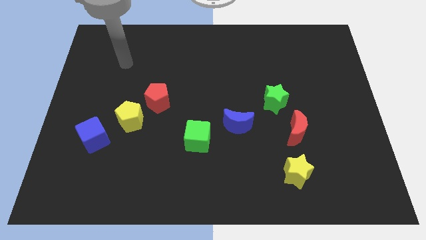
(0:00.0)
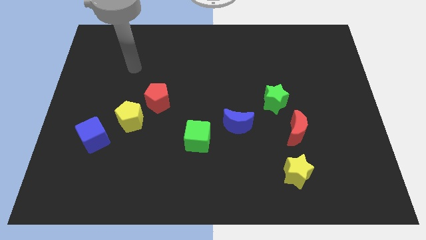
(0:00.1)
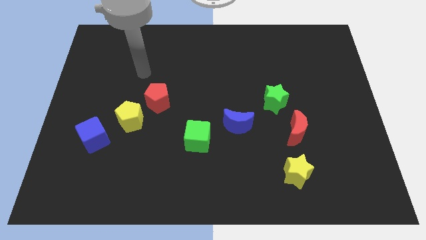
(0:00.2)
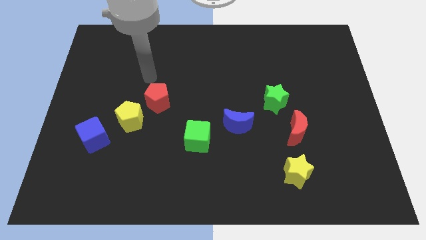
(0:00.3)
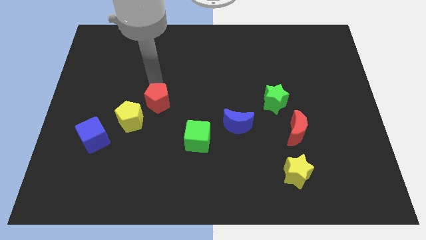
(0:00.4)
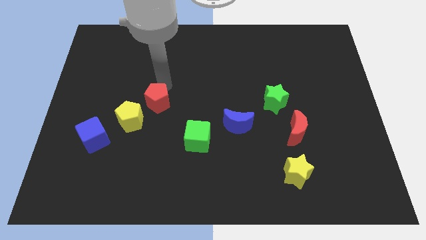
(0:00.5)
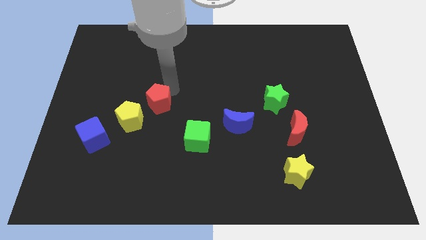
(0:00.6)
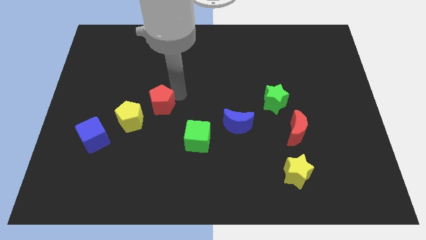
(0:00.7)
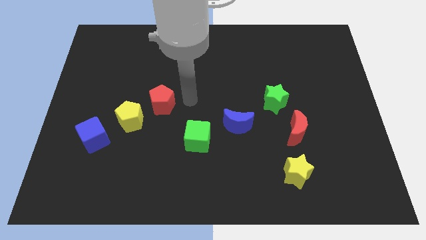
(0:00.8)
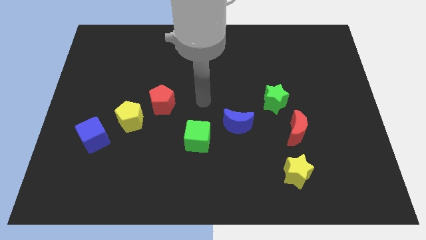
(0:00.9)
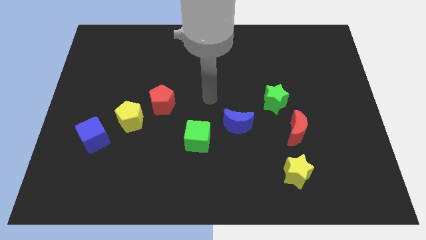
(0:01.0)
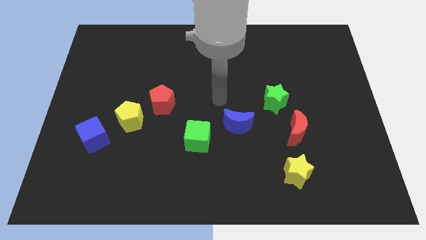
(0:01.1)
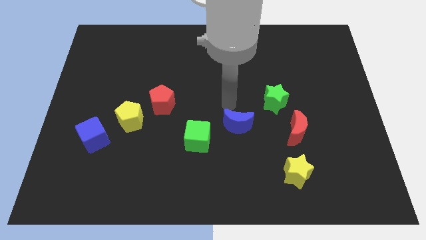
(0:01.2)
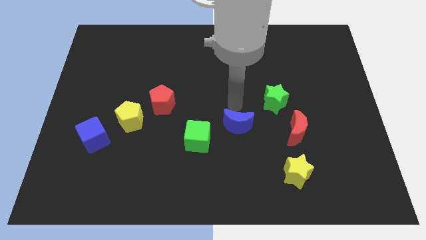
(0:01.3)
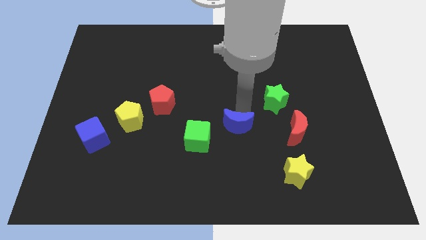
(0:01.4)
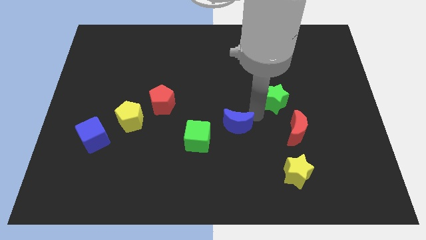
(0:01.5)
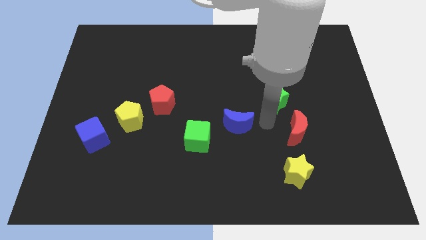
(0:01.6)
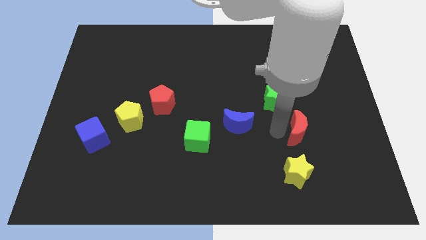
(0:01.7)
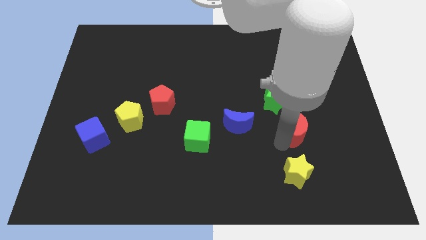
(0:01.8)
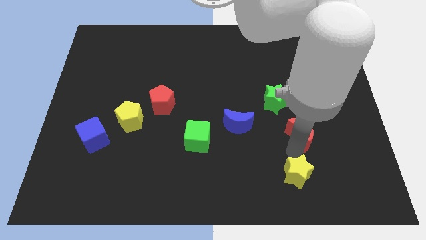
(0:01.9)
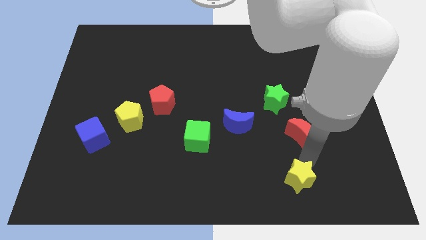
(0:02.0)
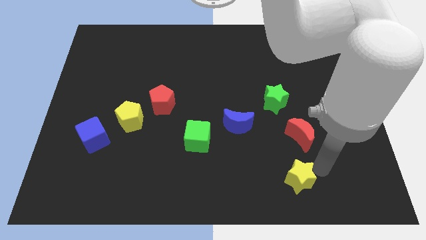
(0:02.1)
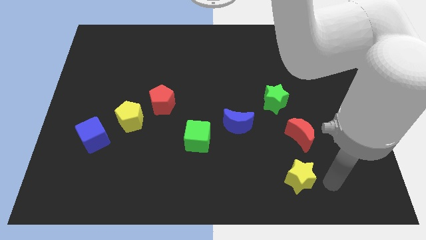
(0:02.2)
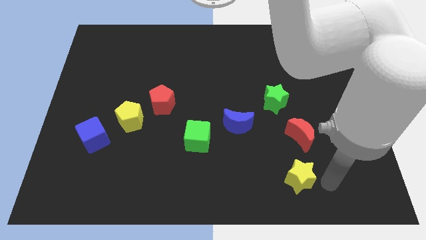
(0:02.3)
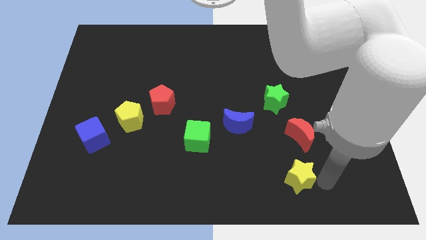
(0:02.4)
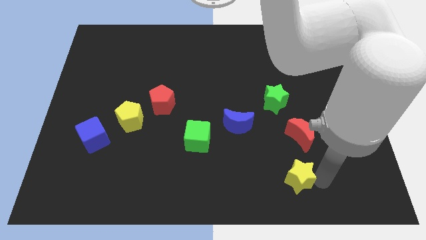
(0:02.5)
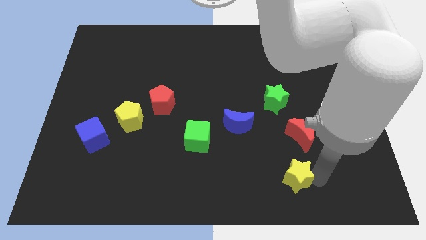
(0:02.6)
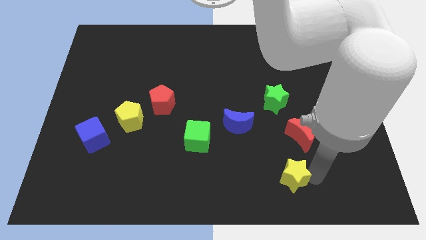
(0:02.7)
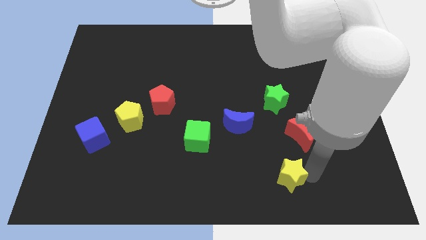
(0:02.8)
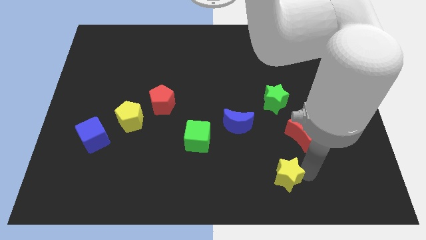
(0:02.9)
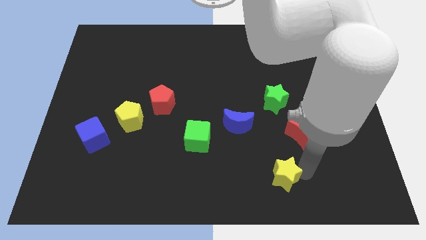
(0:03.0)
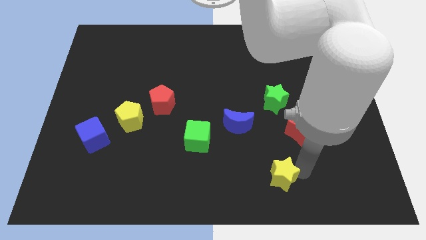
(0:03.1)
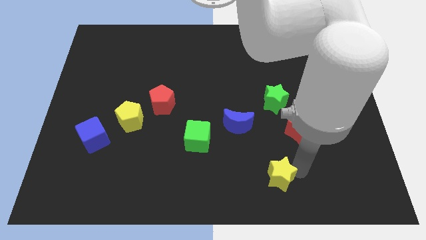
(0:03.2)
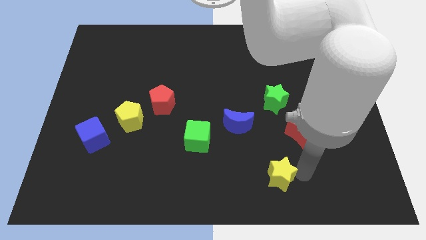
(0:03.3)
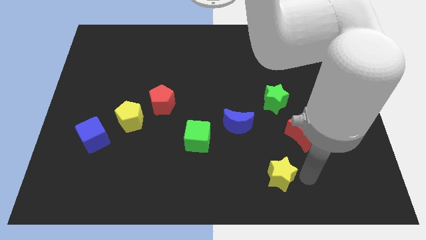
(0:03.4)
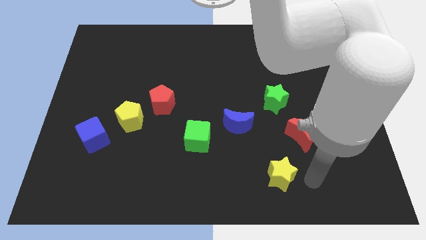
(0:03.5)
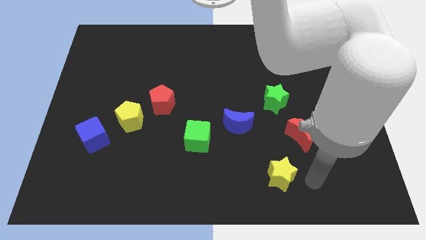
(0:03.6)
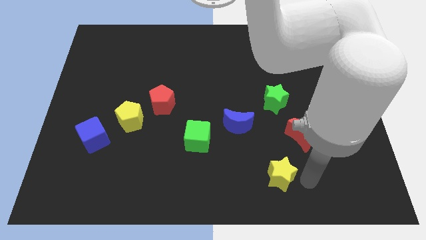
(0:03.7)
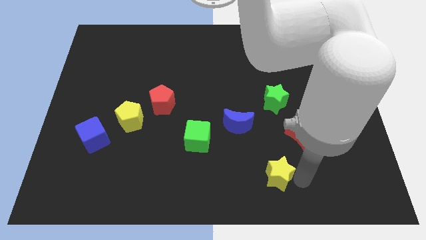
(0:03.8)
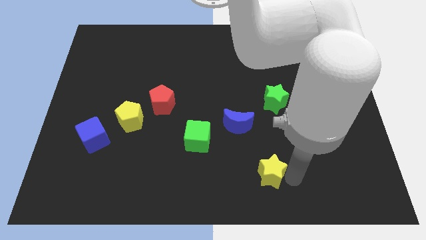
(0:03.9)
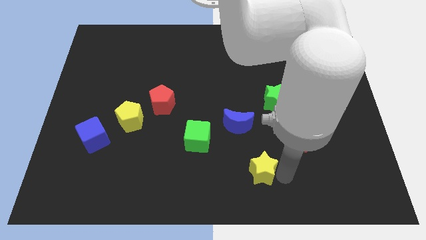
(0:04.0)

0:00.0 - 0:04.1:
slightly move the yellow star to the left

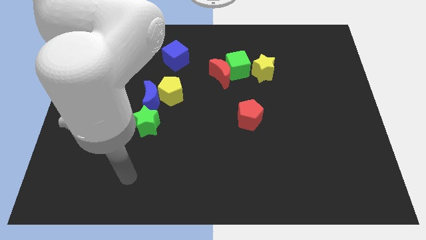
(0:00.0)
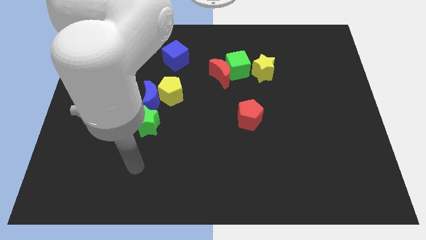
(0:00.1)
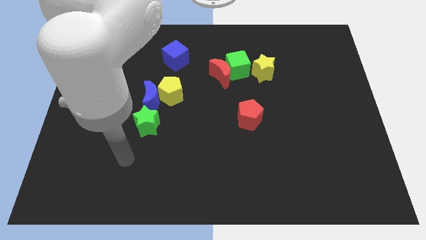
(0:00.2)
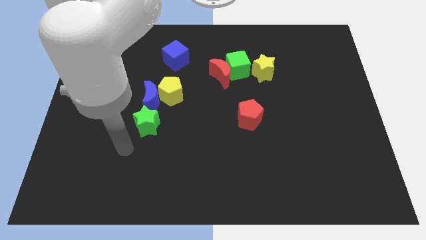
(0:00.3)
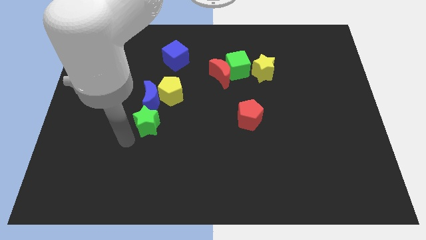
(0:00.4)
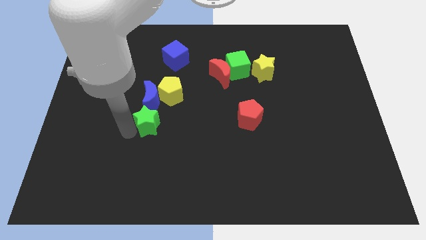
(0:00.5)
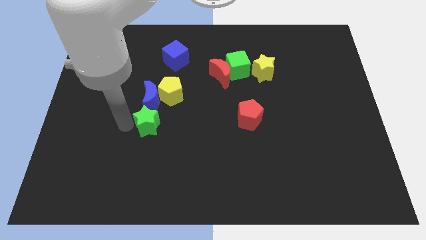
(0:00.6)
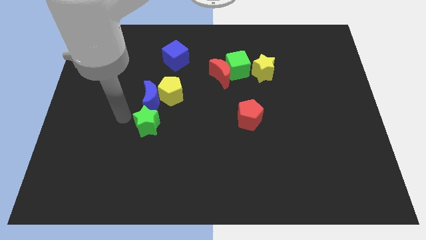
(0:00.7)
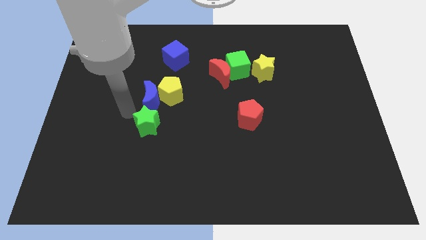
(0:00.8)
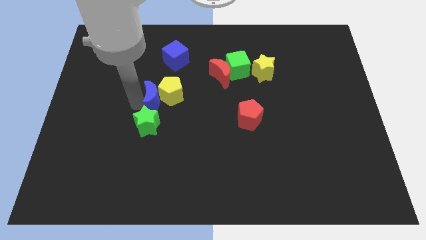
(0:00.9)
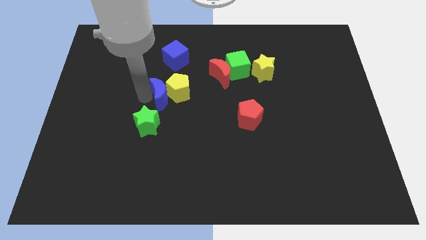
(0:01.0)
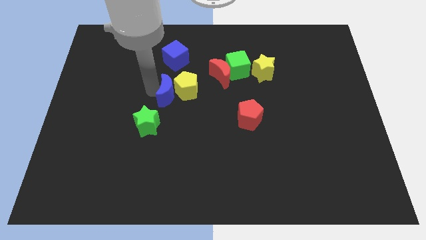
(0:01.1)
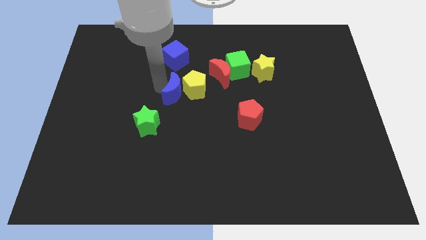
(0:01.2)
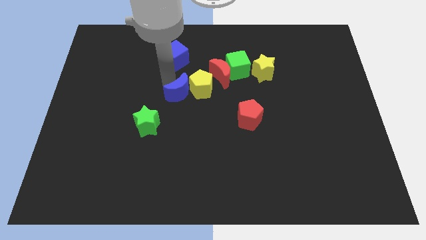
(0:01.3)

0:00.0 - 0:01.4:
move the yellow pentagon somewhat to the right

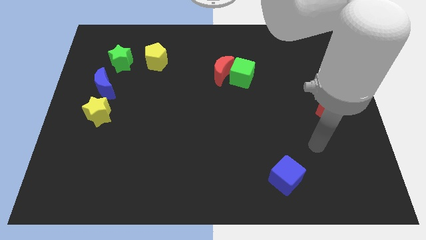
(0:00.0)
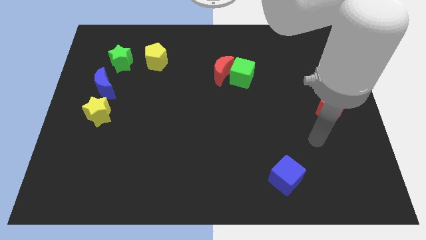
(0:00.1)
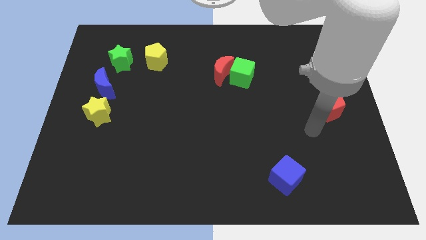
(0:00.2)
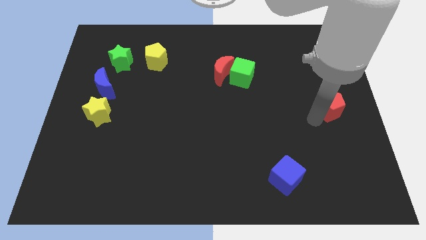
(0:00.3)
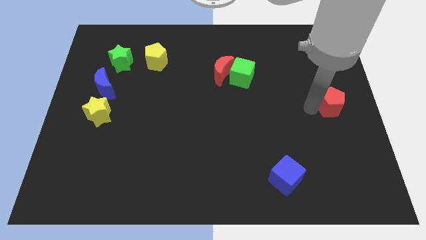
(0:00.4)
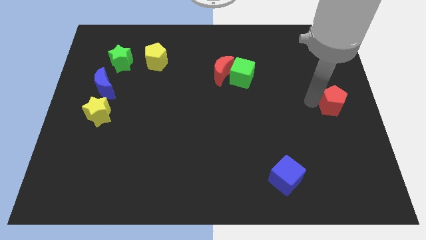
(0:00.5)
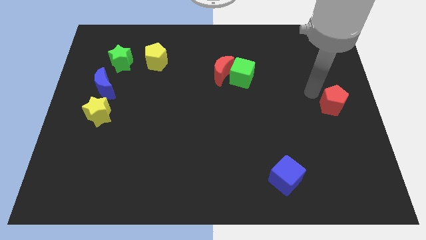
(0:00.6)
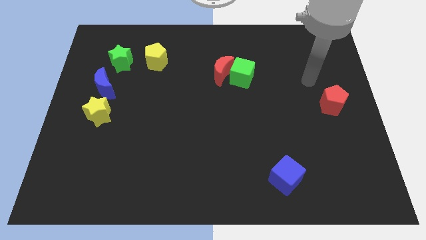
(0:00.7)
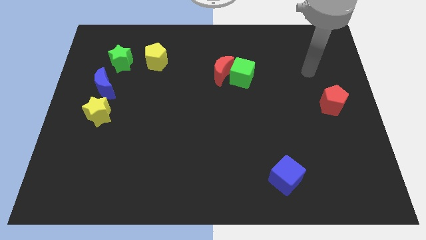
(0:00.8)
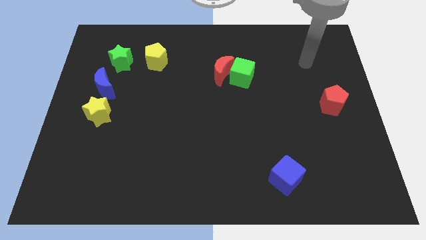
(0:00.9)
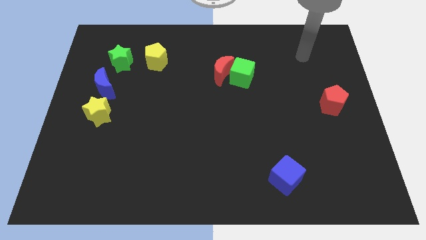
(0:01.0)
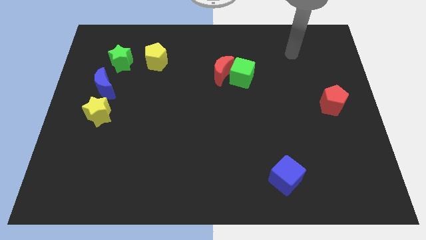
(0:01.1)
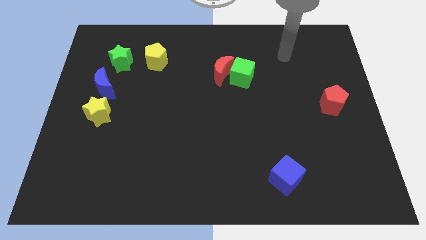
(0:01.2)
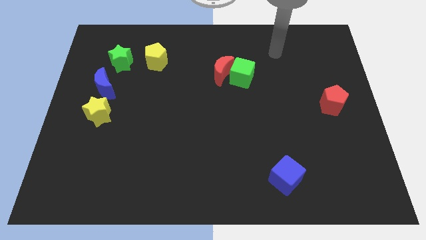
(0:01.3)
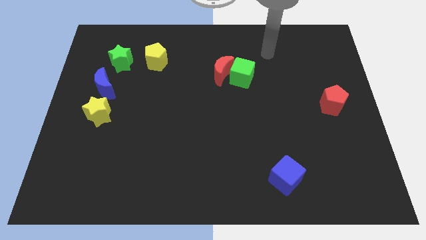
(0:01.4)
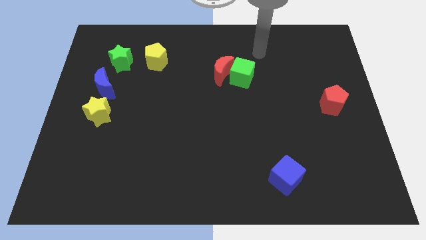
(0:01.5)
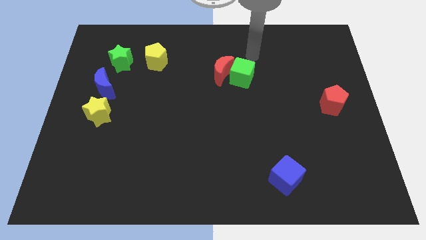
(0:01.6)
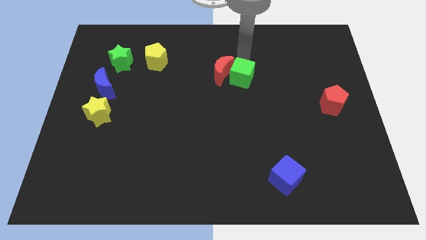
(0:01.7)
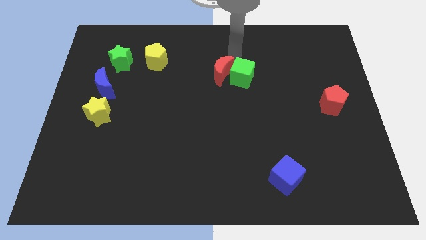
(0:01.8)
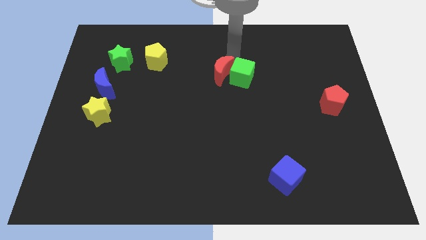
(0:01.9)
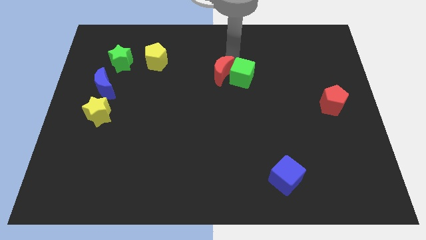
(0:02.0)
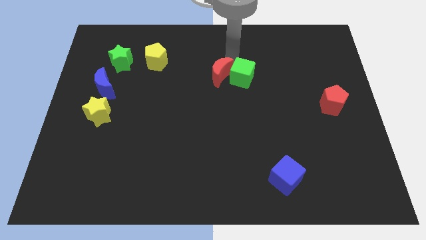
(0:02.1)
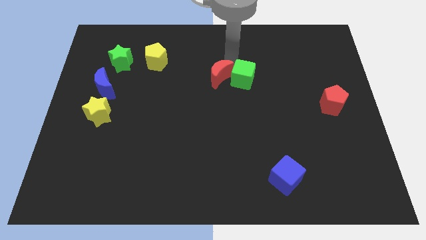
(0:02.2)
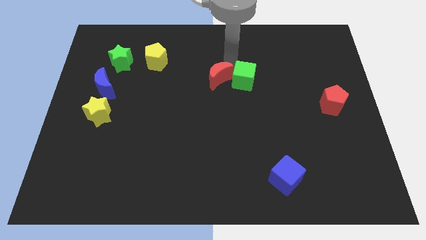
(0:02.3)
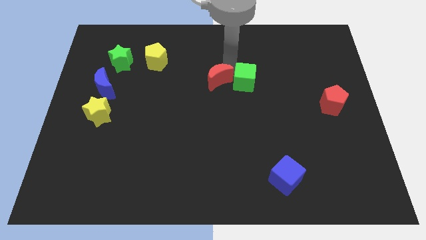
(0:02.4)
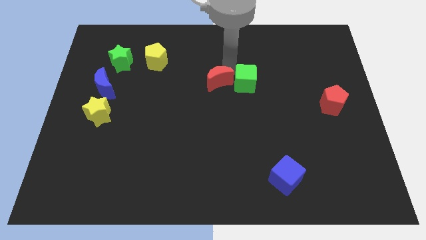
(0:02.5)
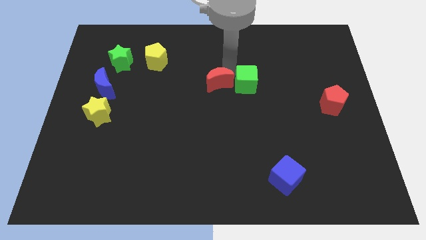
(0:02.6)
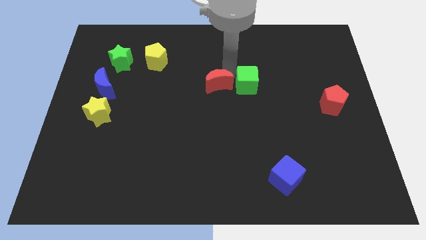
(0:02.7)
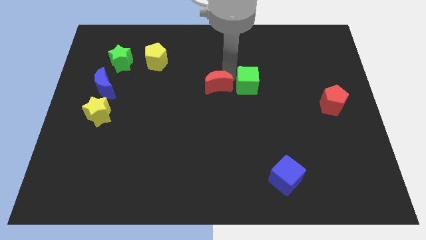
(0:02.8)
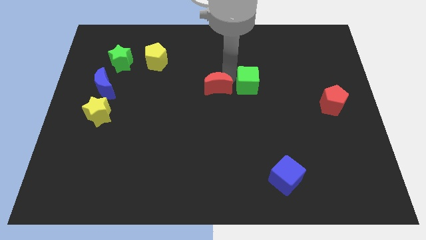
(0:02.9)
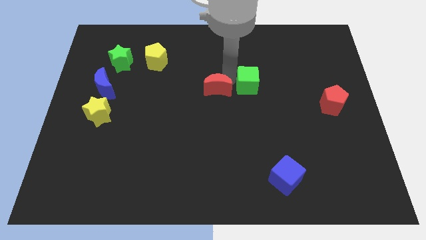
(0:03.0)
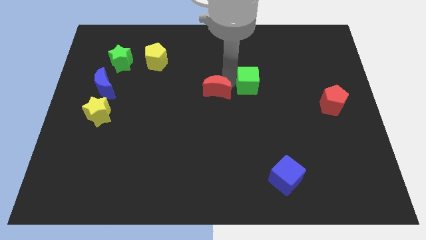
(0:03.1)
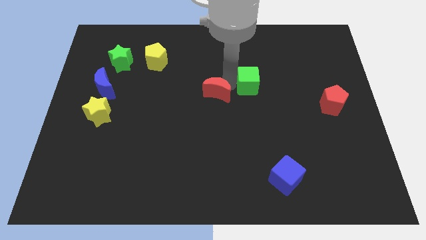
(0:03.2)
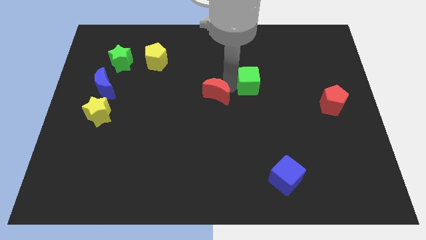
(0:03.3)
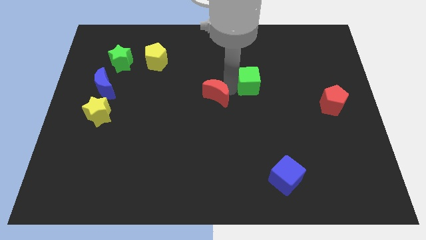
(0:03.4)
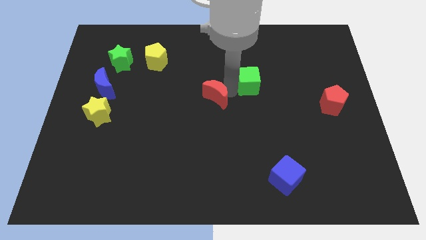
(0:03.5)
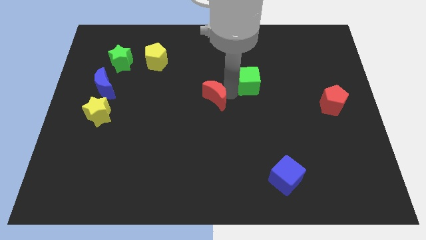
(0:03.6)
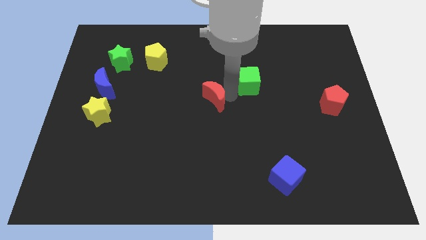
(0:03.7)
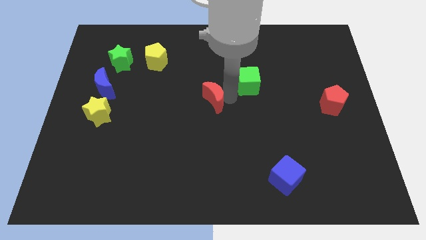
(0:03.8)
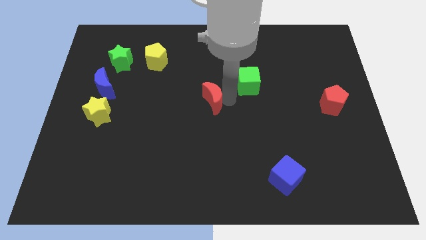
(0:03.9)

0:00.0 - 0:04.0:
slide the red moon somewhat downwards and to the left diagonally
